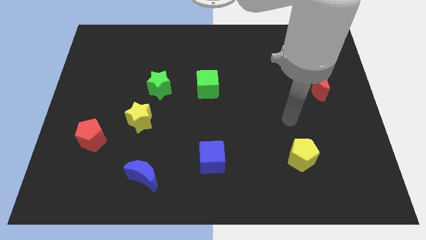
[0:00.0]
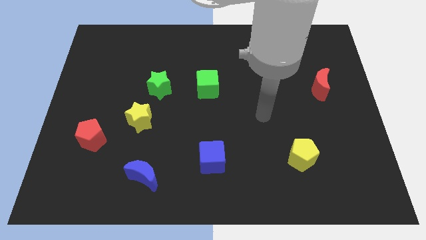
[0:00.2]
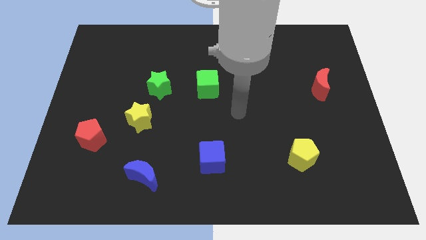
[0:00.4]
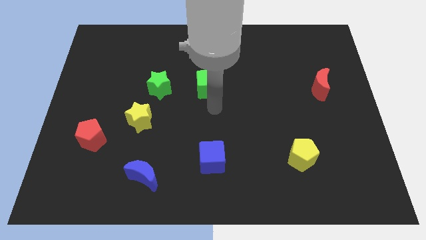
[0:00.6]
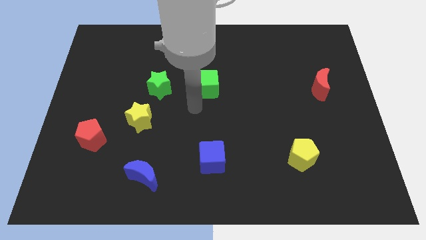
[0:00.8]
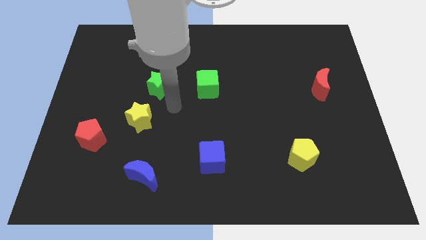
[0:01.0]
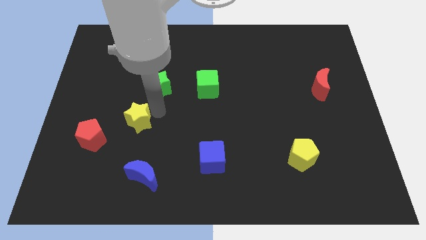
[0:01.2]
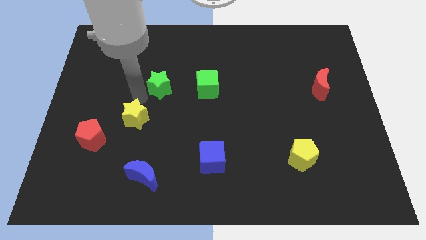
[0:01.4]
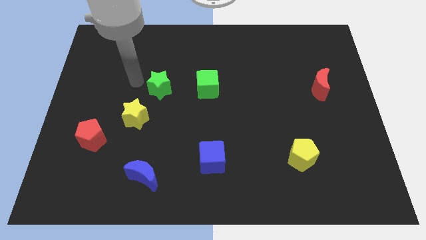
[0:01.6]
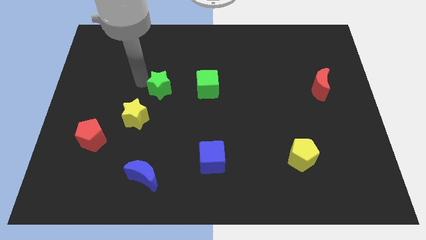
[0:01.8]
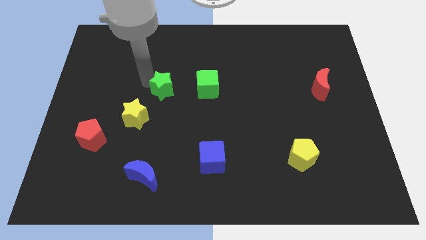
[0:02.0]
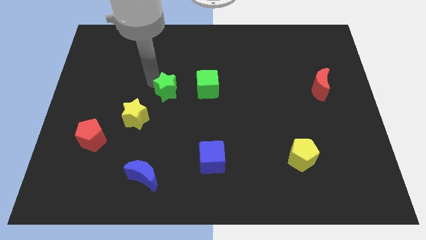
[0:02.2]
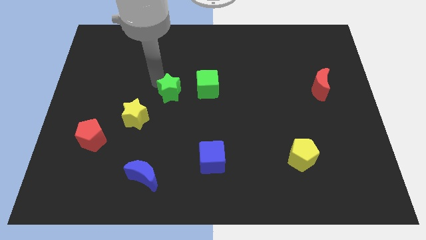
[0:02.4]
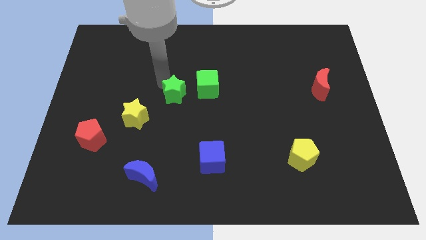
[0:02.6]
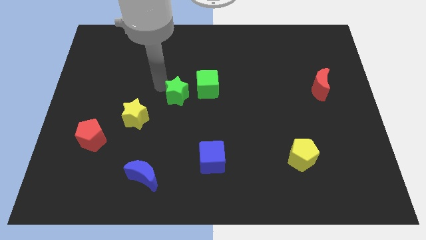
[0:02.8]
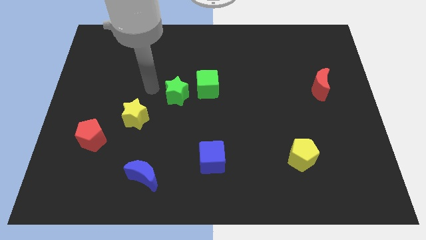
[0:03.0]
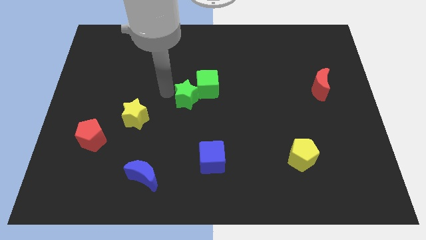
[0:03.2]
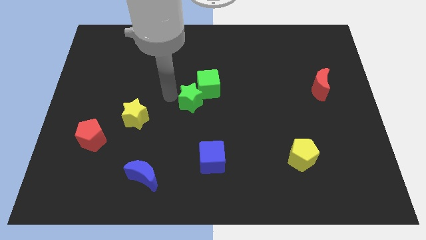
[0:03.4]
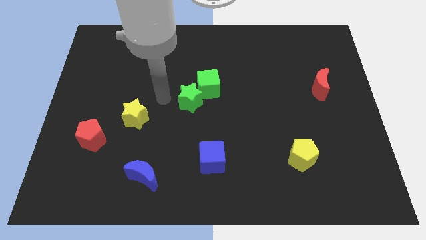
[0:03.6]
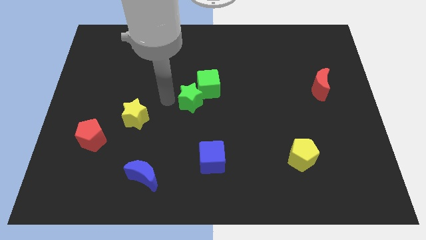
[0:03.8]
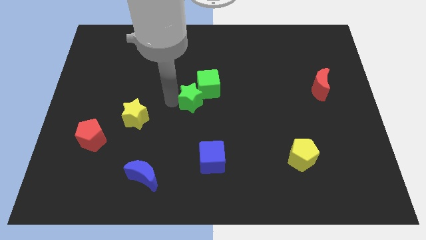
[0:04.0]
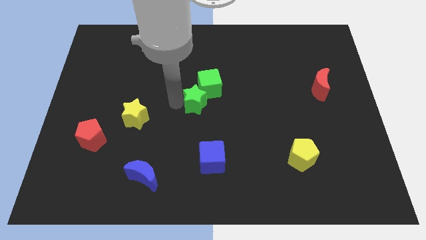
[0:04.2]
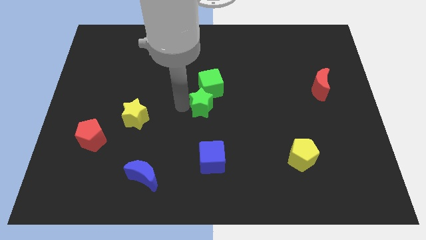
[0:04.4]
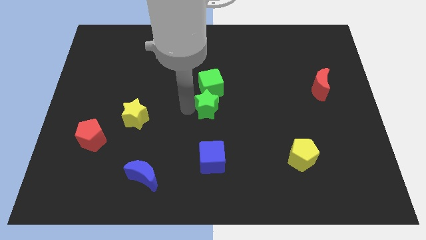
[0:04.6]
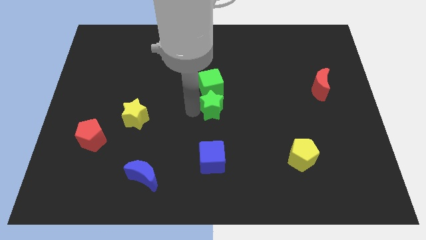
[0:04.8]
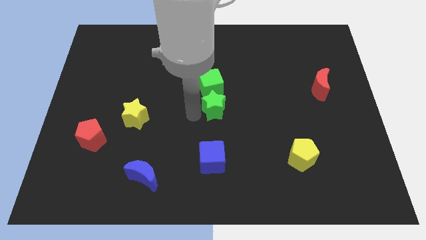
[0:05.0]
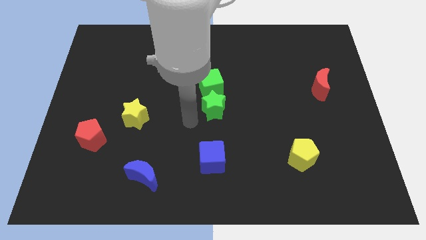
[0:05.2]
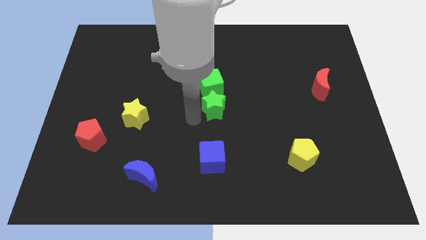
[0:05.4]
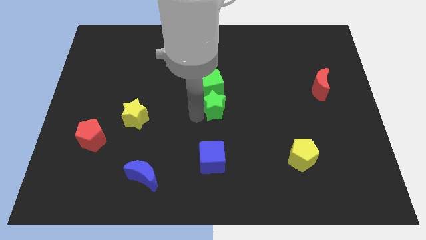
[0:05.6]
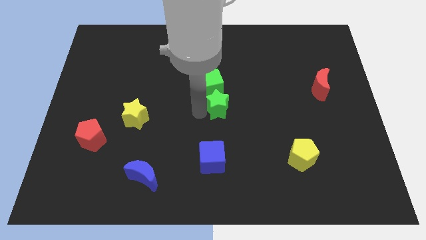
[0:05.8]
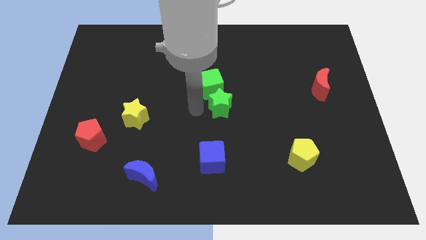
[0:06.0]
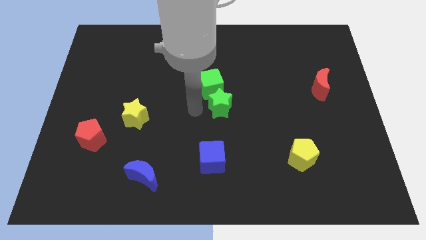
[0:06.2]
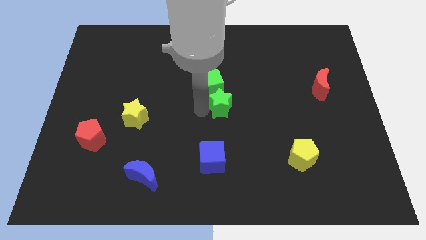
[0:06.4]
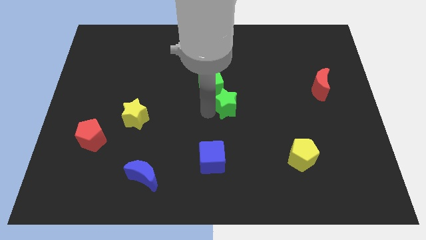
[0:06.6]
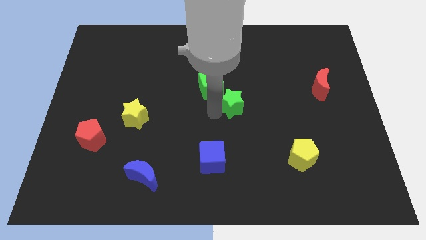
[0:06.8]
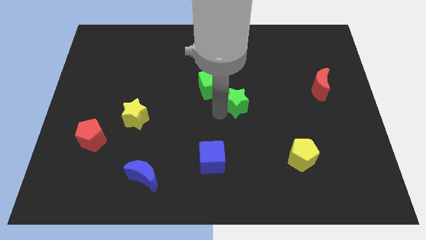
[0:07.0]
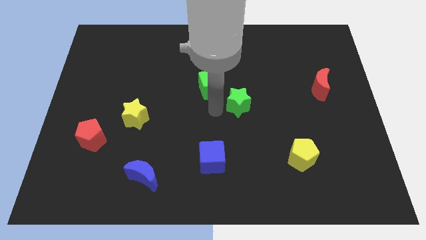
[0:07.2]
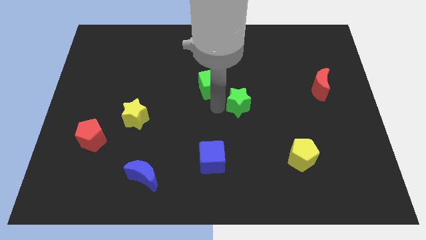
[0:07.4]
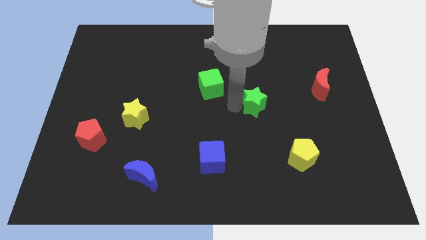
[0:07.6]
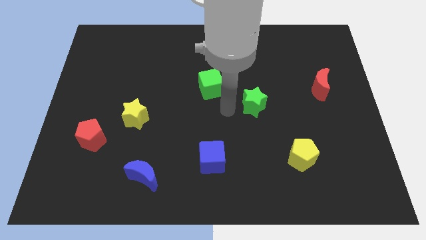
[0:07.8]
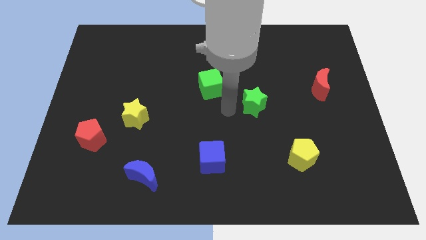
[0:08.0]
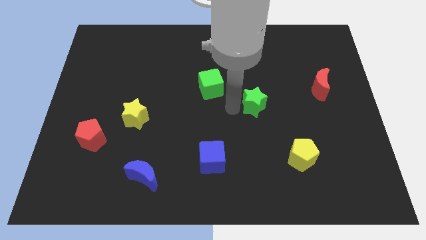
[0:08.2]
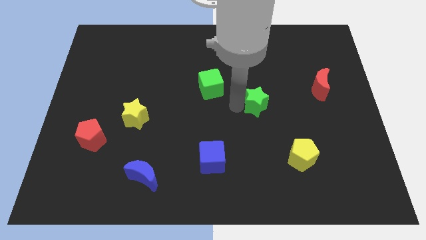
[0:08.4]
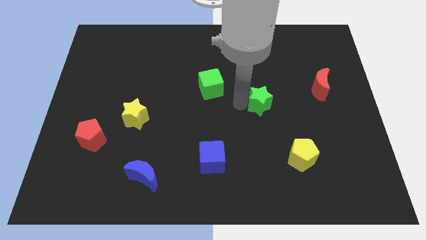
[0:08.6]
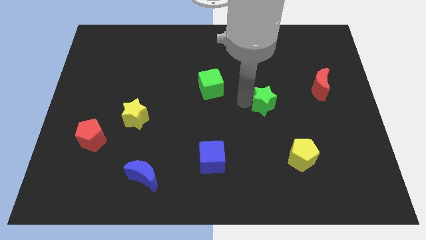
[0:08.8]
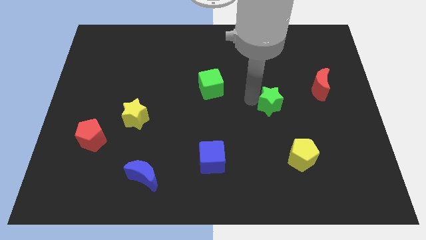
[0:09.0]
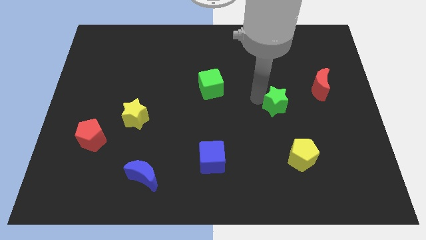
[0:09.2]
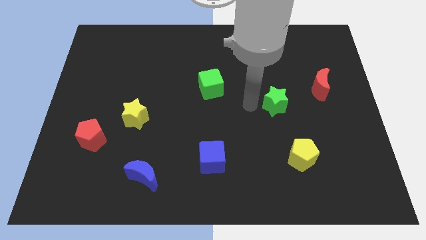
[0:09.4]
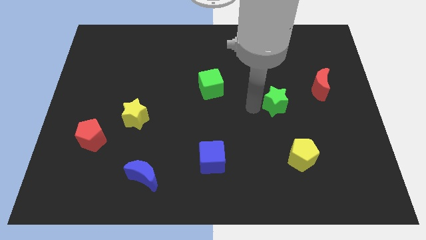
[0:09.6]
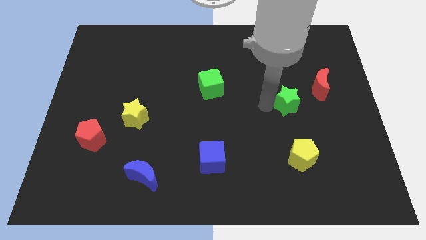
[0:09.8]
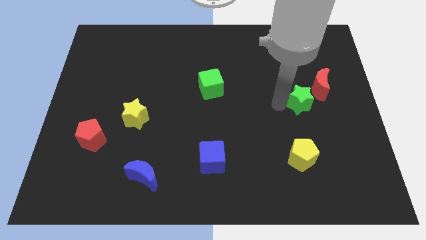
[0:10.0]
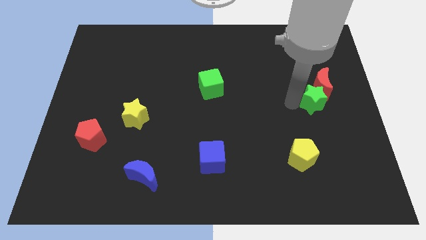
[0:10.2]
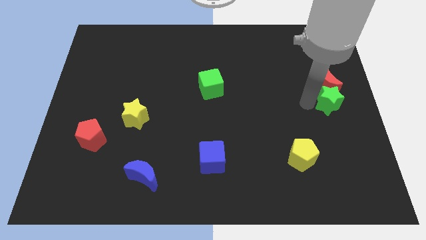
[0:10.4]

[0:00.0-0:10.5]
push the green star to the right side of the board

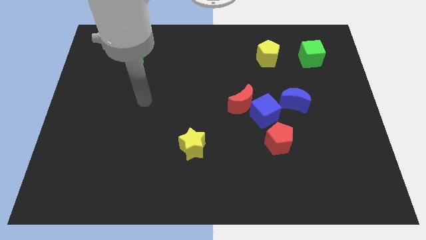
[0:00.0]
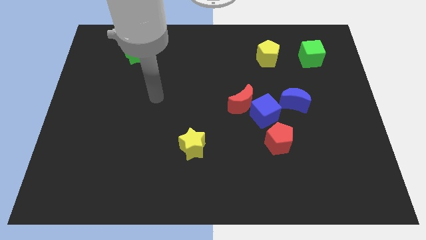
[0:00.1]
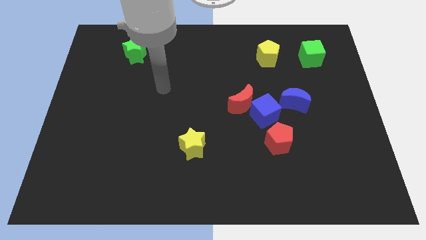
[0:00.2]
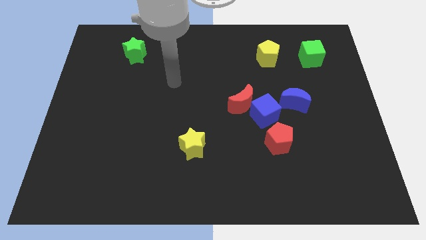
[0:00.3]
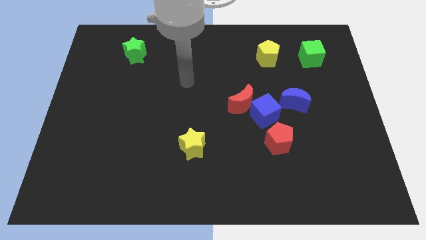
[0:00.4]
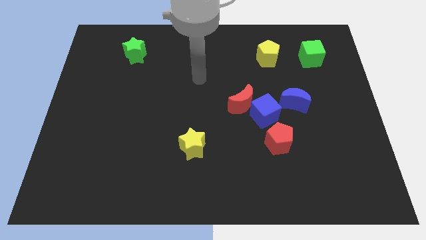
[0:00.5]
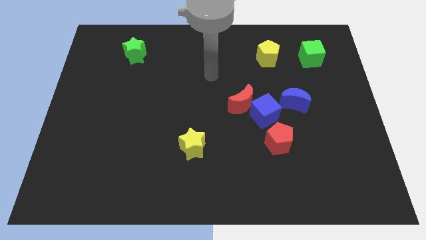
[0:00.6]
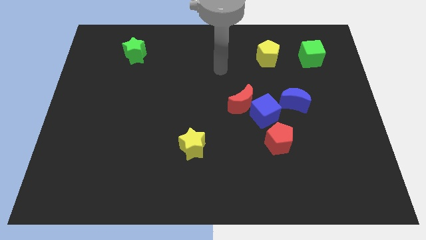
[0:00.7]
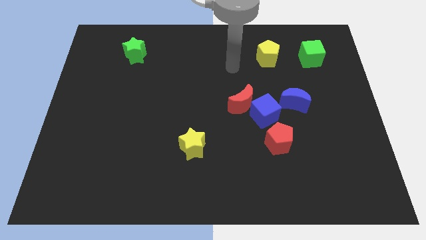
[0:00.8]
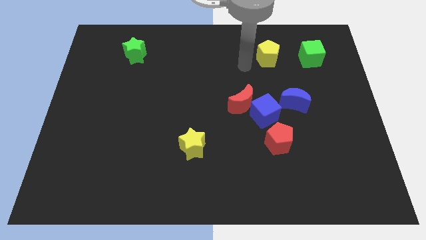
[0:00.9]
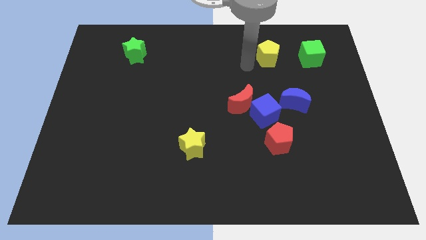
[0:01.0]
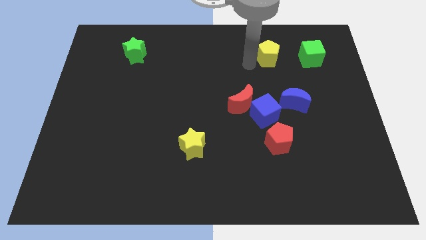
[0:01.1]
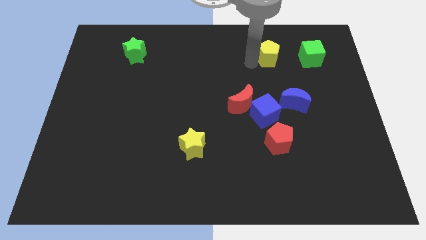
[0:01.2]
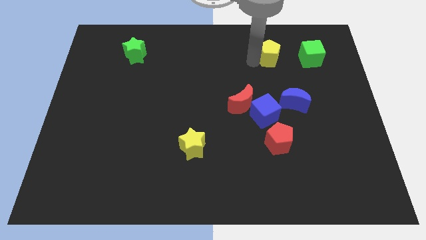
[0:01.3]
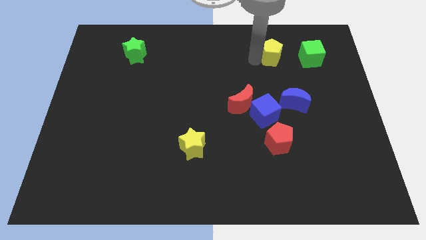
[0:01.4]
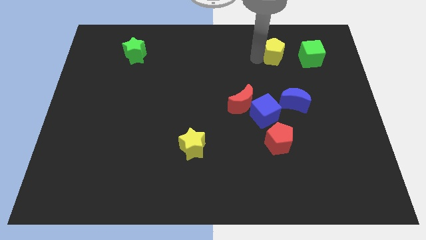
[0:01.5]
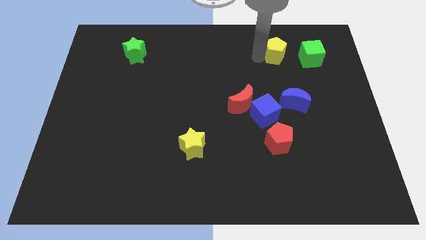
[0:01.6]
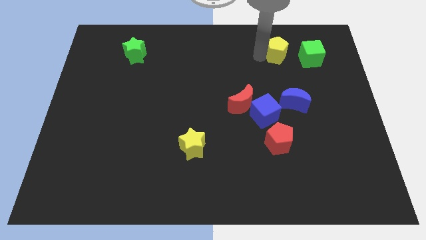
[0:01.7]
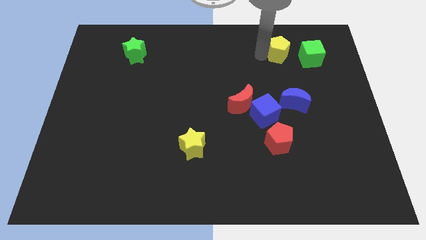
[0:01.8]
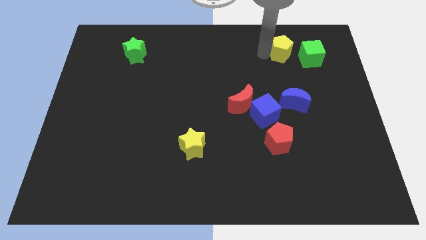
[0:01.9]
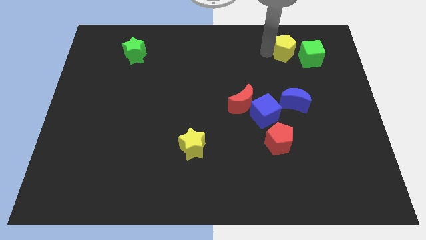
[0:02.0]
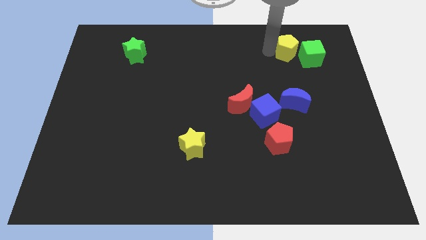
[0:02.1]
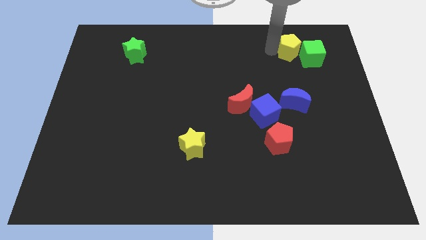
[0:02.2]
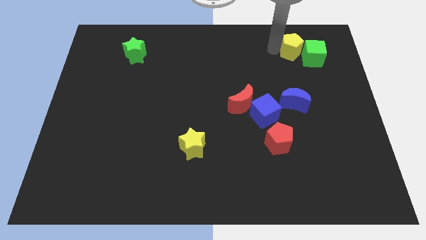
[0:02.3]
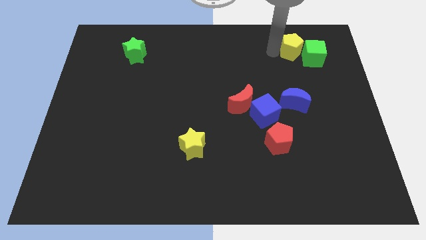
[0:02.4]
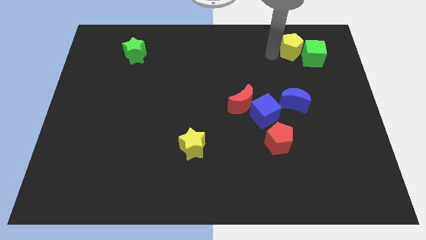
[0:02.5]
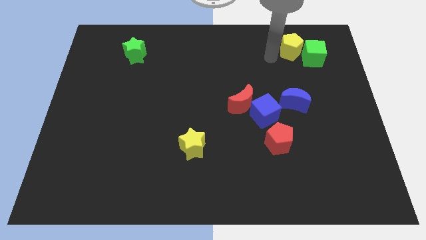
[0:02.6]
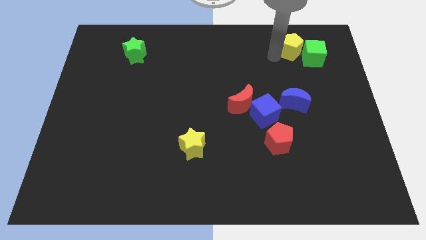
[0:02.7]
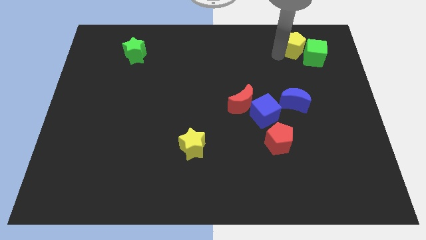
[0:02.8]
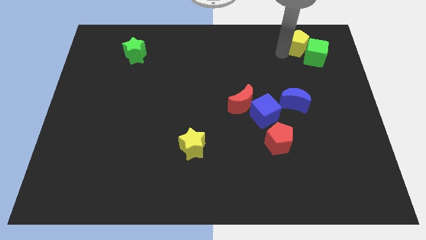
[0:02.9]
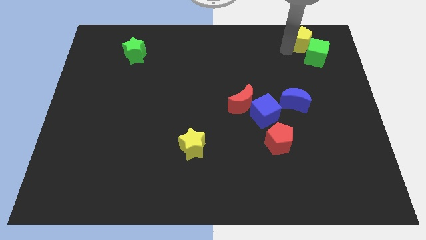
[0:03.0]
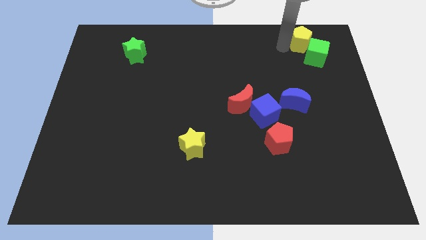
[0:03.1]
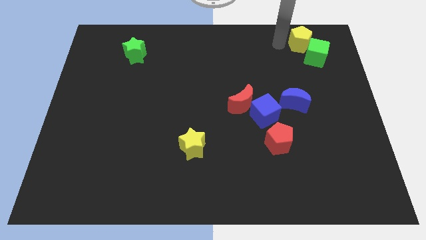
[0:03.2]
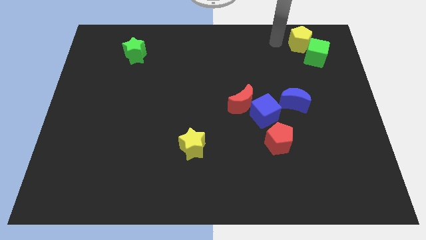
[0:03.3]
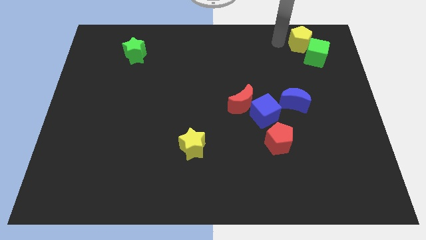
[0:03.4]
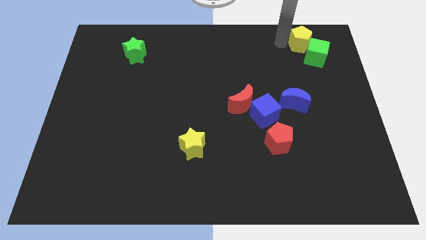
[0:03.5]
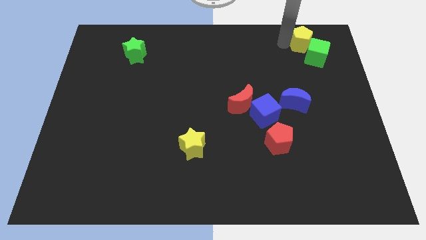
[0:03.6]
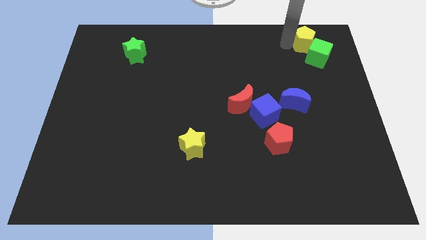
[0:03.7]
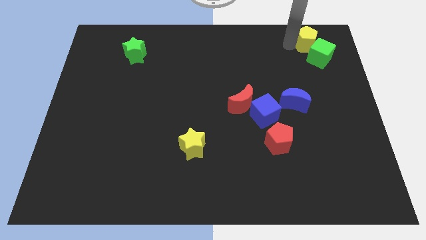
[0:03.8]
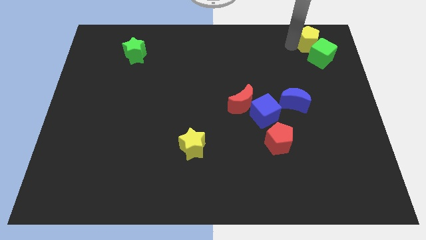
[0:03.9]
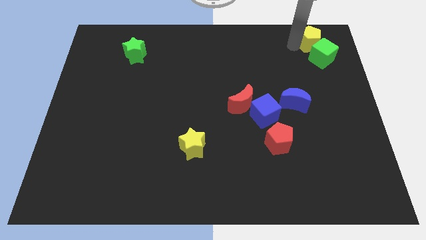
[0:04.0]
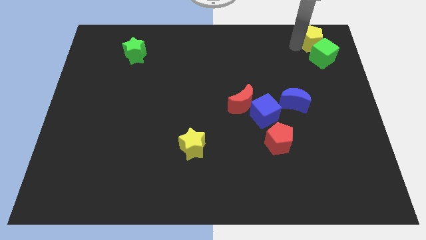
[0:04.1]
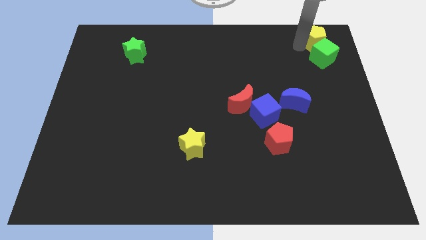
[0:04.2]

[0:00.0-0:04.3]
push the yellow pentagon to the top right
